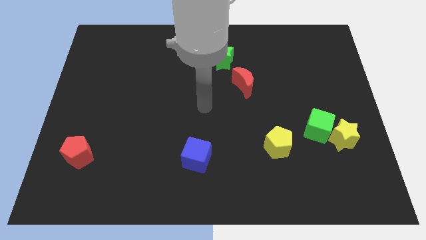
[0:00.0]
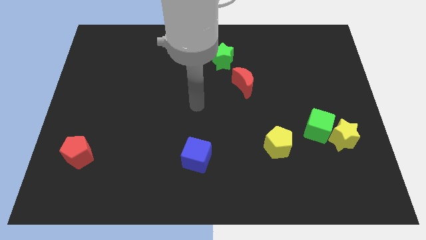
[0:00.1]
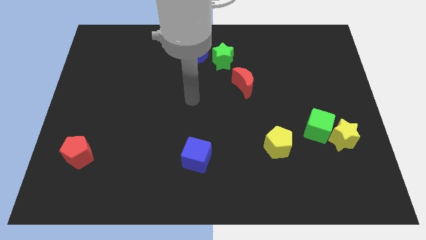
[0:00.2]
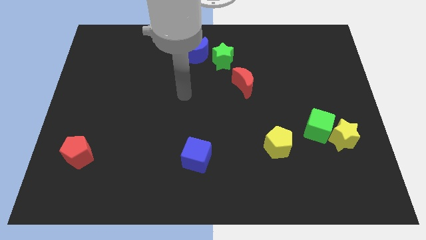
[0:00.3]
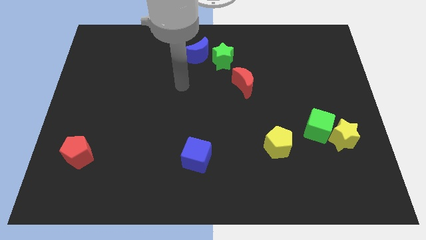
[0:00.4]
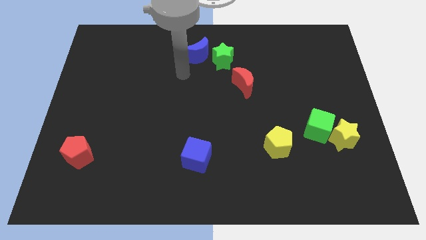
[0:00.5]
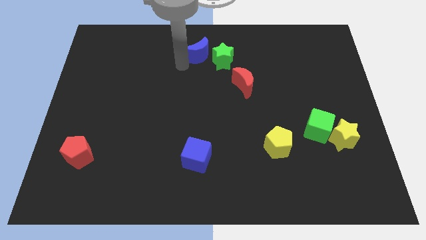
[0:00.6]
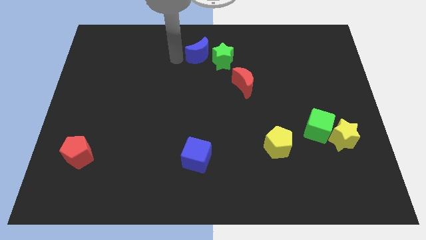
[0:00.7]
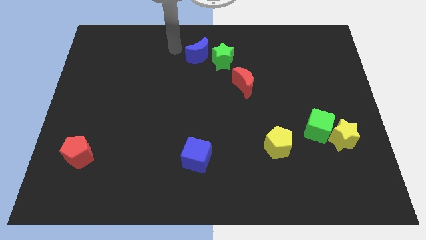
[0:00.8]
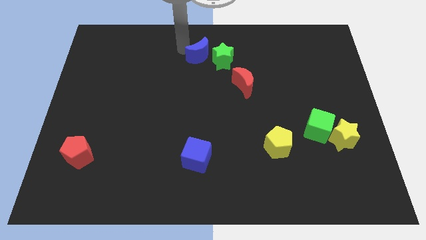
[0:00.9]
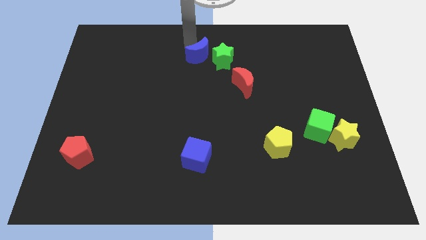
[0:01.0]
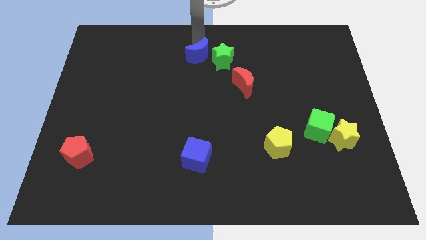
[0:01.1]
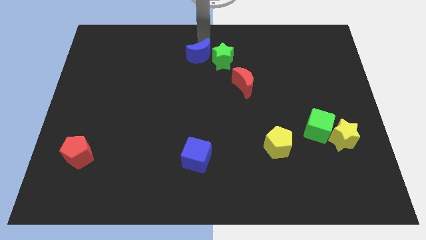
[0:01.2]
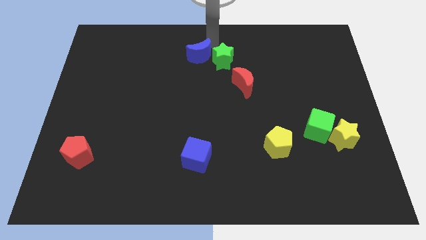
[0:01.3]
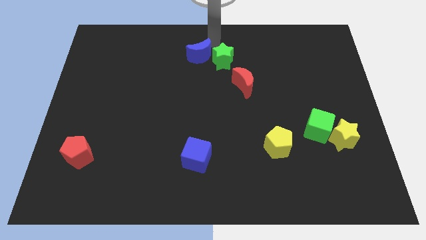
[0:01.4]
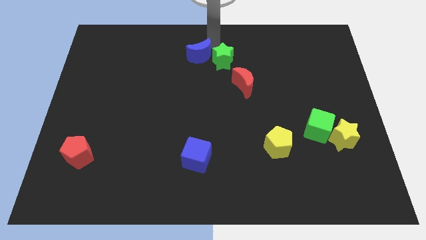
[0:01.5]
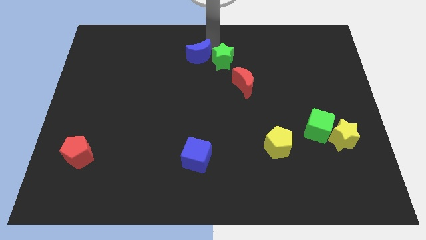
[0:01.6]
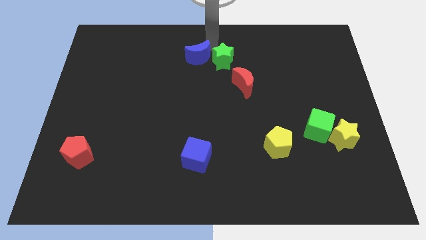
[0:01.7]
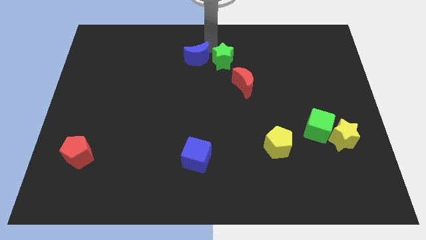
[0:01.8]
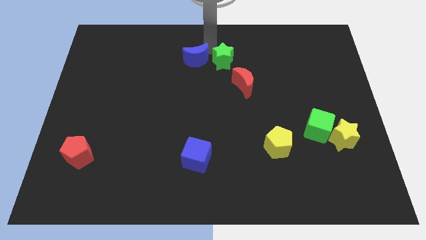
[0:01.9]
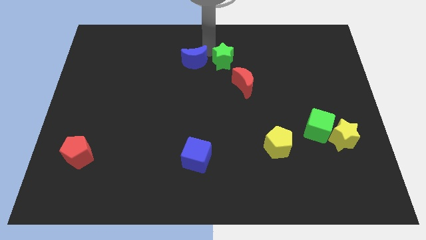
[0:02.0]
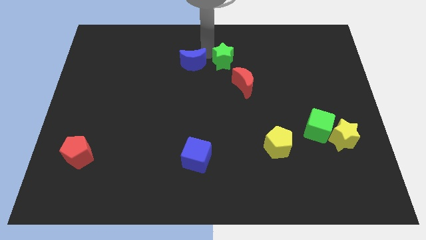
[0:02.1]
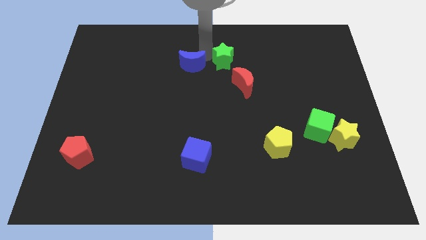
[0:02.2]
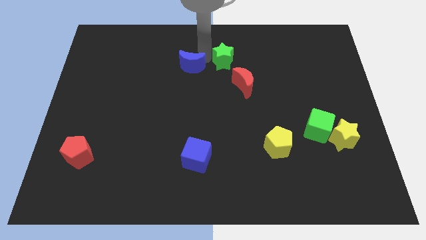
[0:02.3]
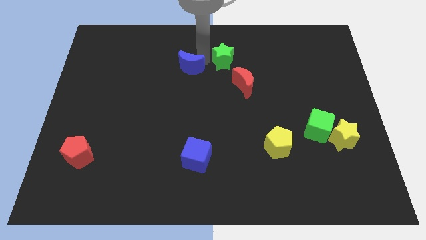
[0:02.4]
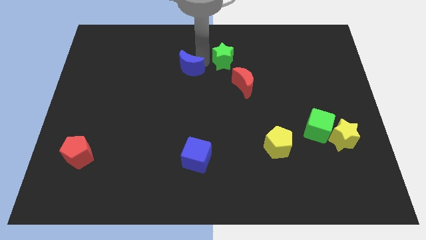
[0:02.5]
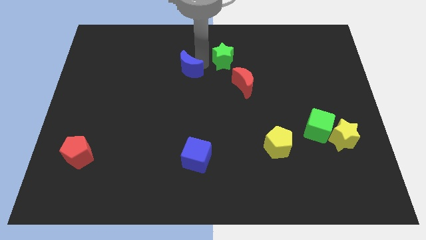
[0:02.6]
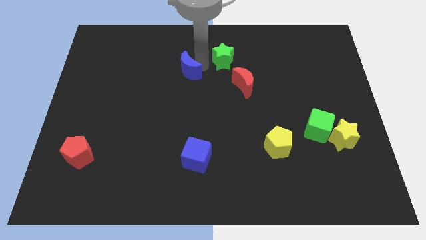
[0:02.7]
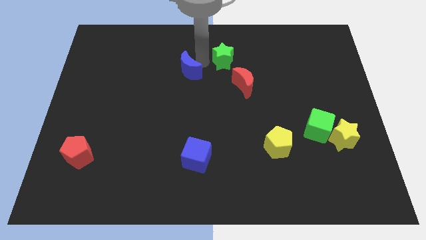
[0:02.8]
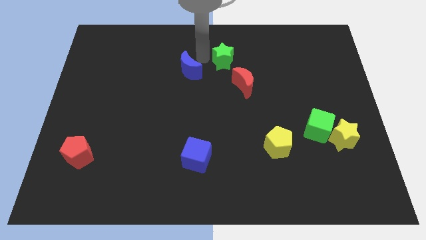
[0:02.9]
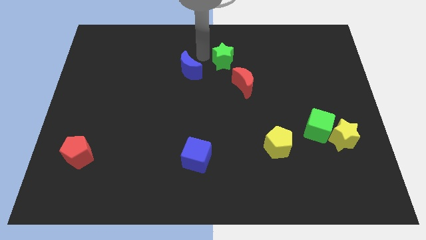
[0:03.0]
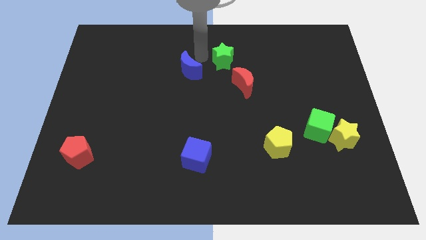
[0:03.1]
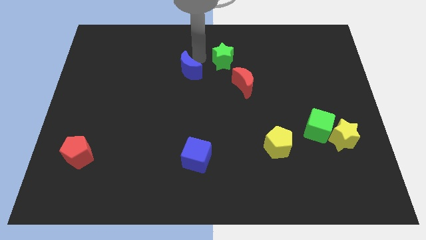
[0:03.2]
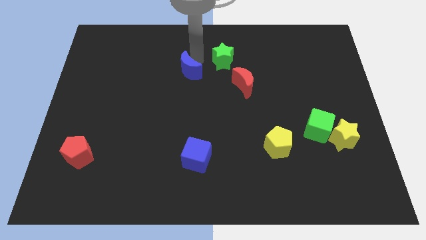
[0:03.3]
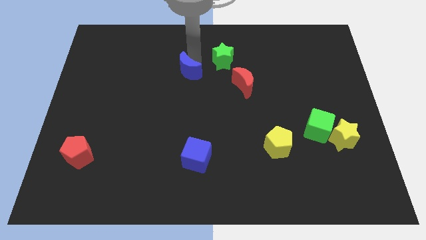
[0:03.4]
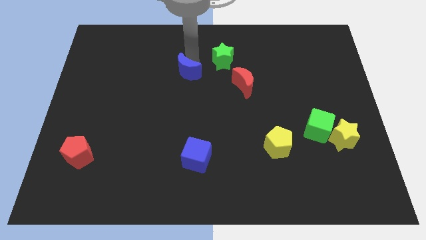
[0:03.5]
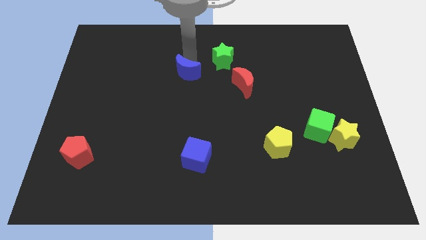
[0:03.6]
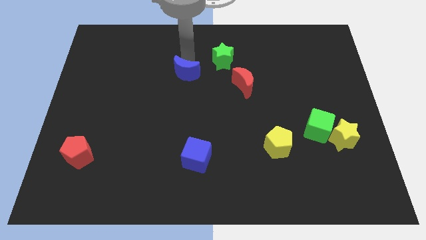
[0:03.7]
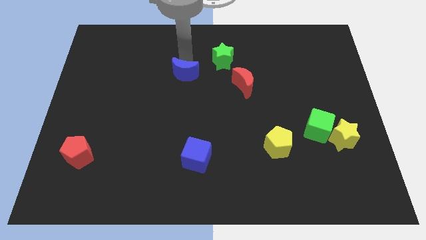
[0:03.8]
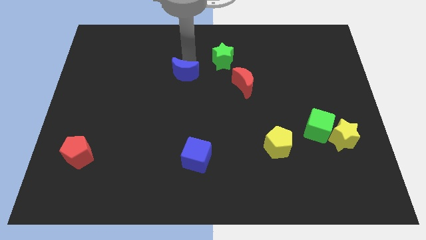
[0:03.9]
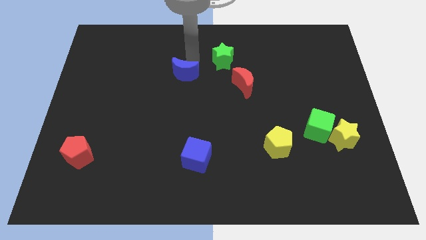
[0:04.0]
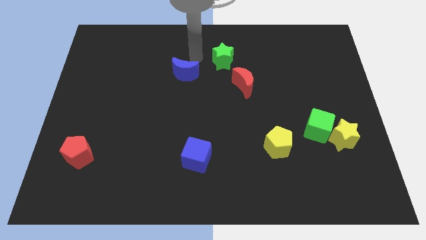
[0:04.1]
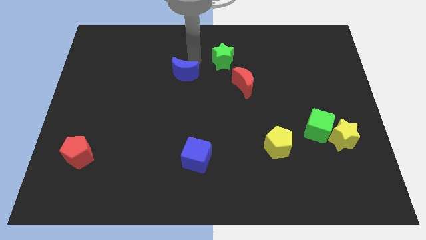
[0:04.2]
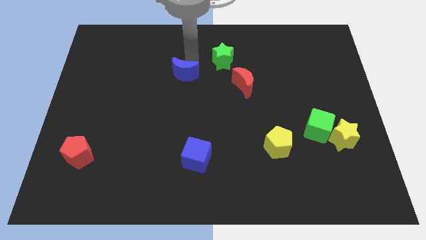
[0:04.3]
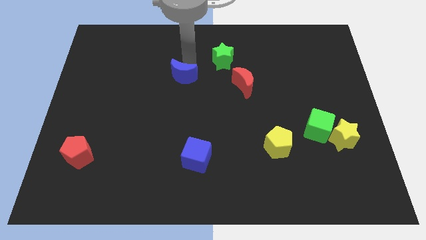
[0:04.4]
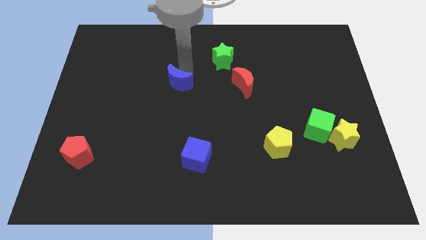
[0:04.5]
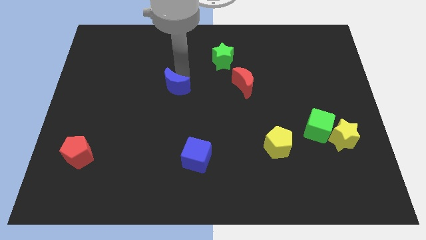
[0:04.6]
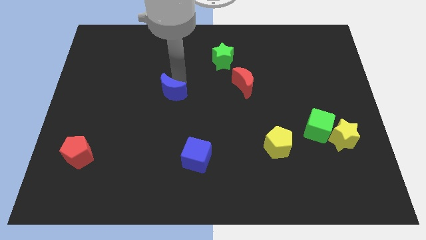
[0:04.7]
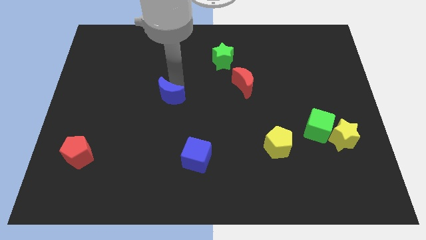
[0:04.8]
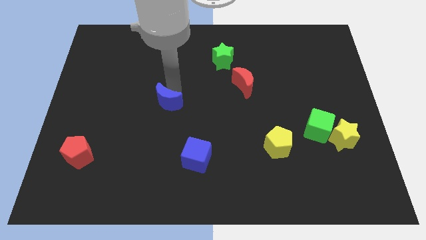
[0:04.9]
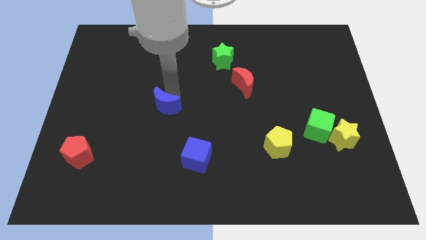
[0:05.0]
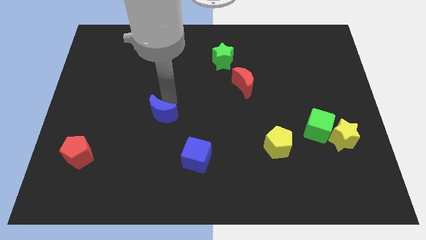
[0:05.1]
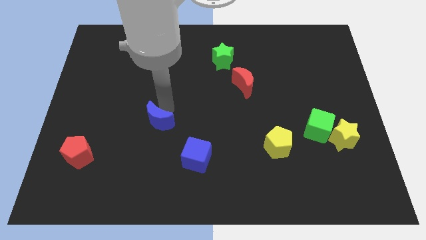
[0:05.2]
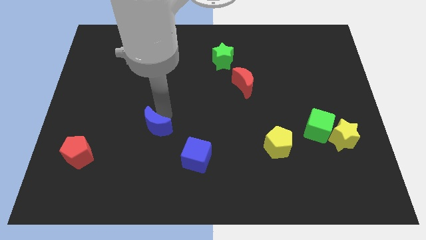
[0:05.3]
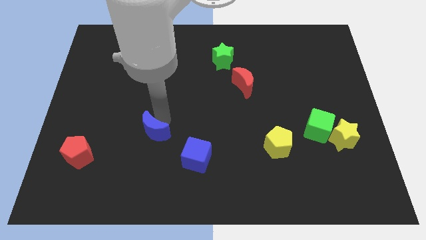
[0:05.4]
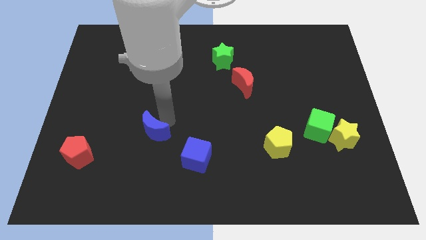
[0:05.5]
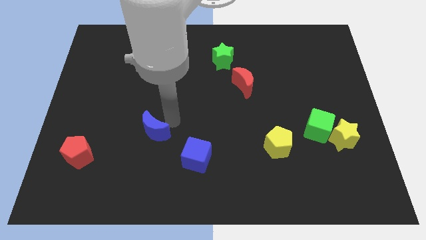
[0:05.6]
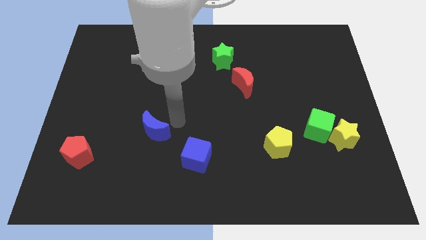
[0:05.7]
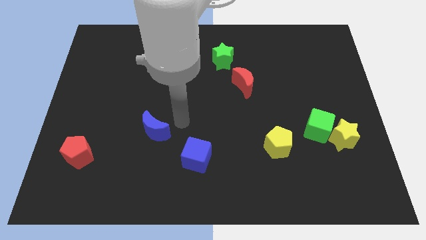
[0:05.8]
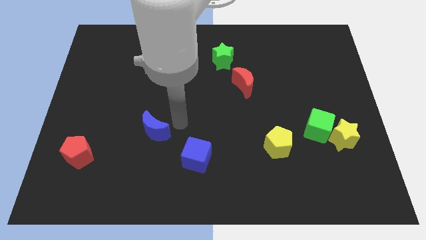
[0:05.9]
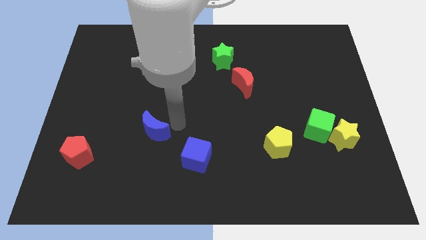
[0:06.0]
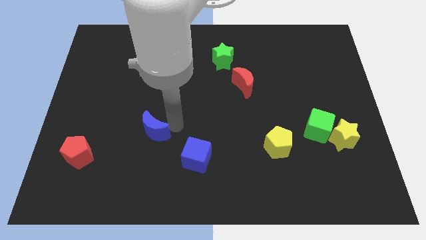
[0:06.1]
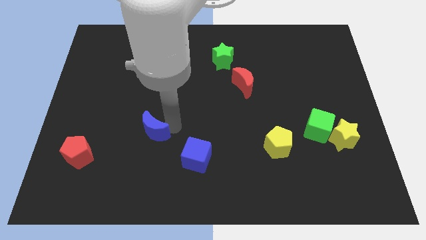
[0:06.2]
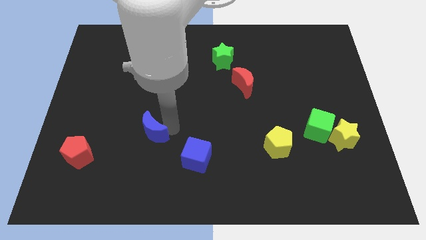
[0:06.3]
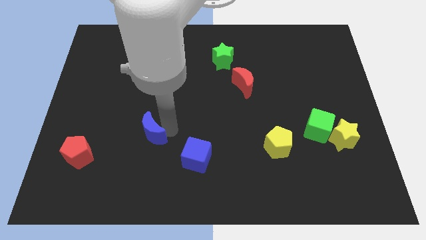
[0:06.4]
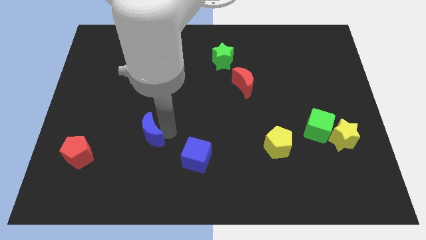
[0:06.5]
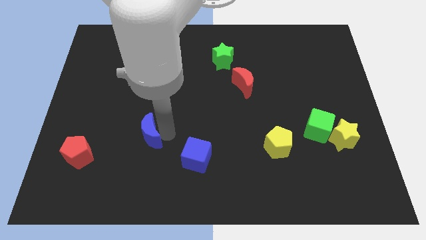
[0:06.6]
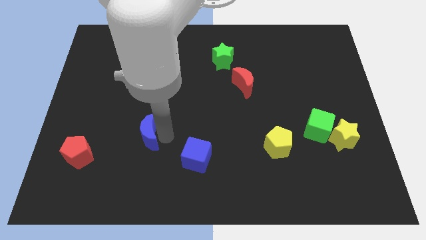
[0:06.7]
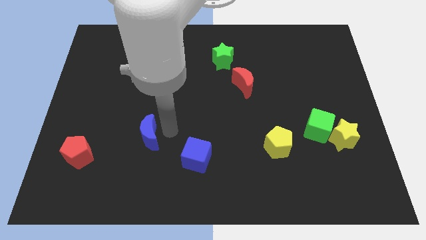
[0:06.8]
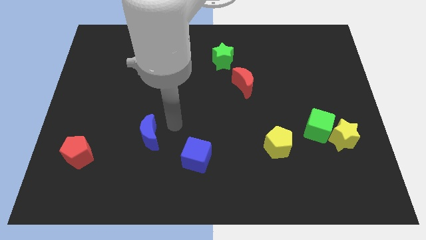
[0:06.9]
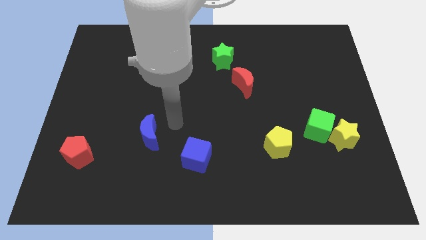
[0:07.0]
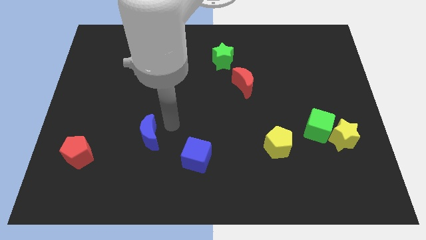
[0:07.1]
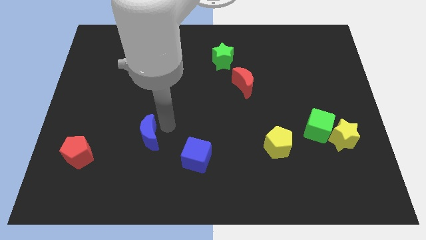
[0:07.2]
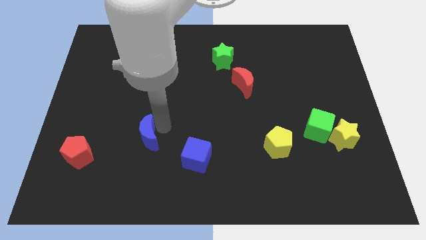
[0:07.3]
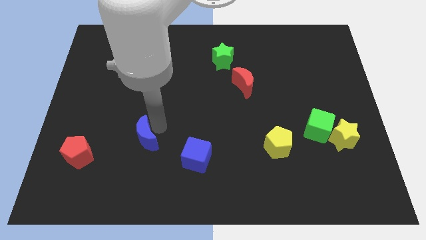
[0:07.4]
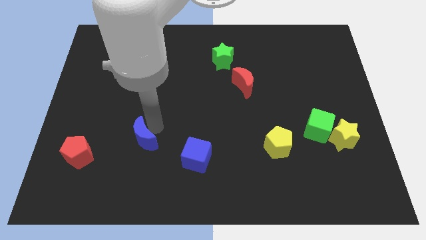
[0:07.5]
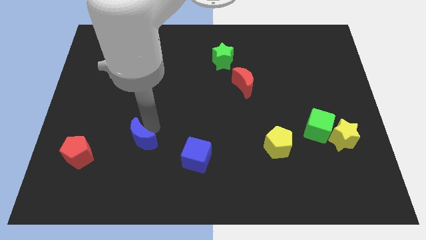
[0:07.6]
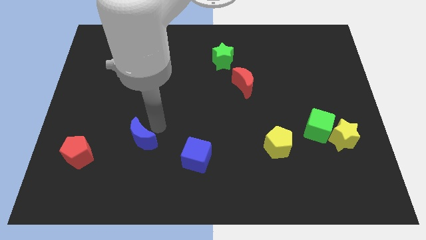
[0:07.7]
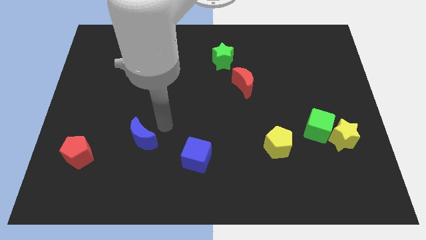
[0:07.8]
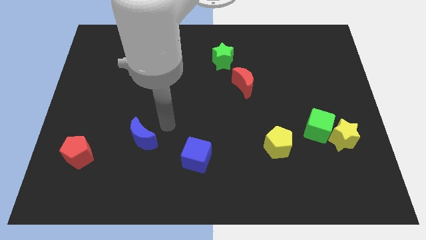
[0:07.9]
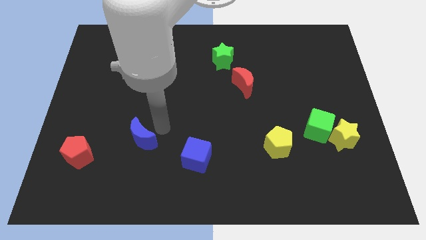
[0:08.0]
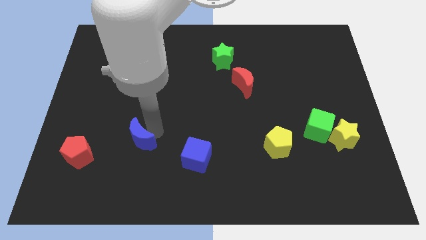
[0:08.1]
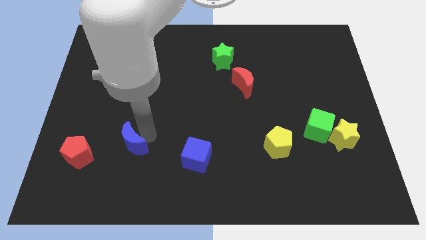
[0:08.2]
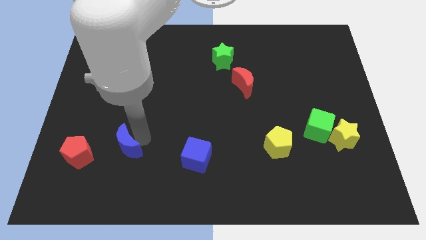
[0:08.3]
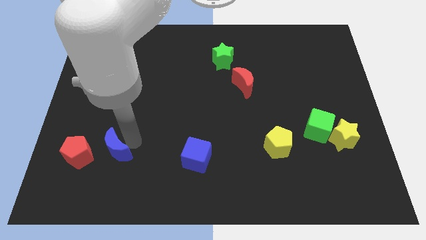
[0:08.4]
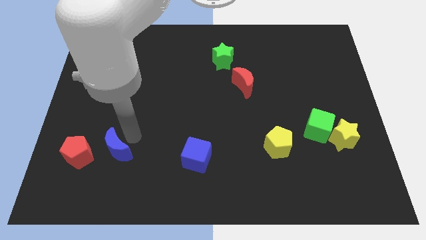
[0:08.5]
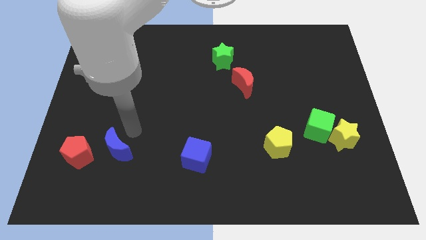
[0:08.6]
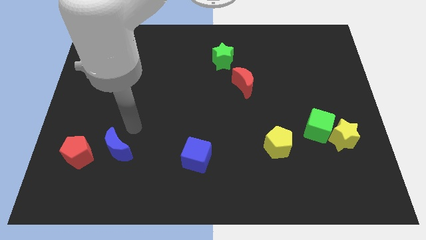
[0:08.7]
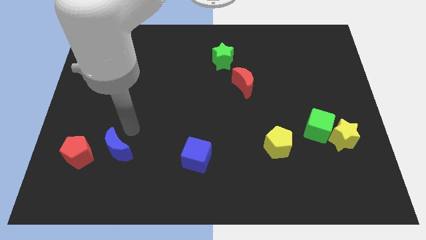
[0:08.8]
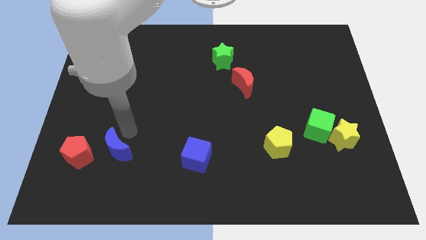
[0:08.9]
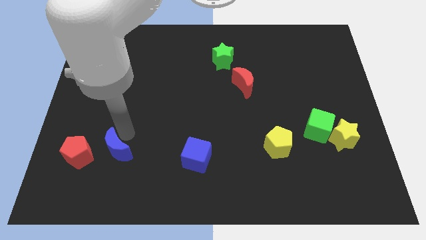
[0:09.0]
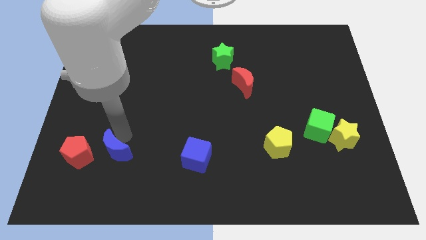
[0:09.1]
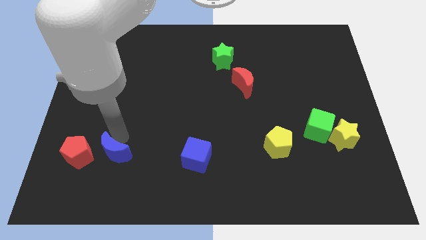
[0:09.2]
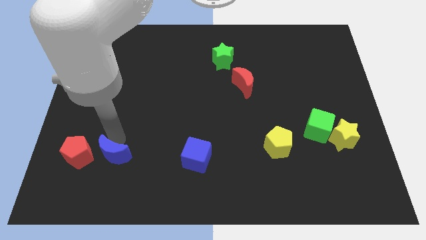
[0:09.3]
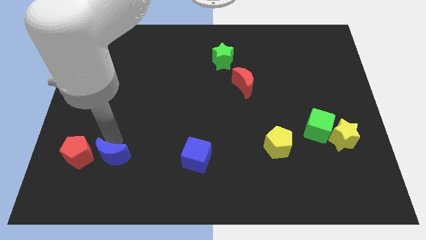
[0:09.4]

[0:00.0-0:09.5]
put the blue moon to the bottom right side of the red pentagon
